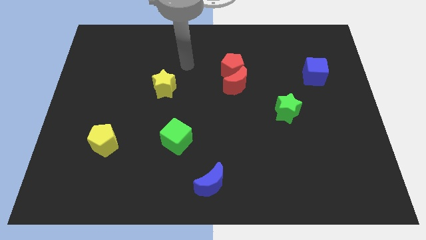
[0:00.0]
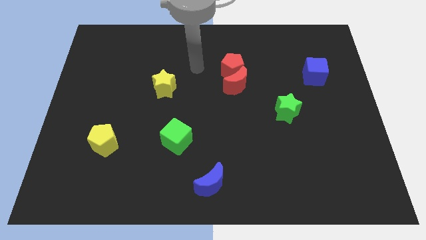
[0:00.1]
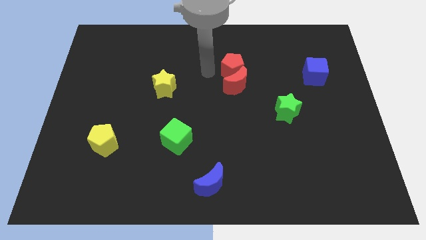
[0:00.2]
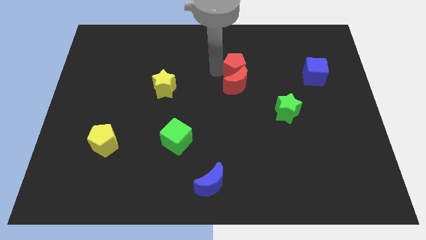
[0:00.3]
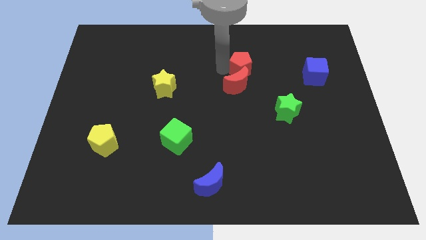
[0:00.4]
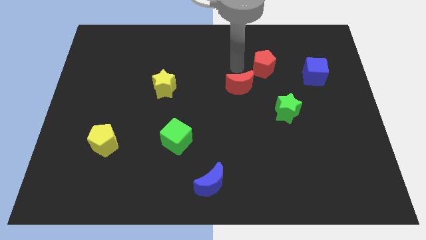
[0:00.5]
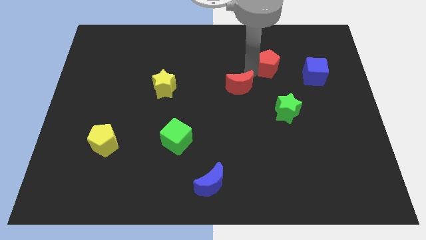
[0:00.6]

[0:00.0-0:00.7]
pull the red moon apart from the red pentagon

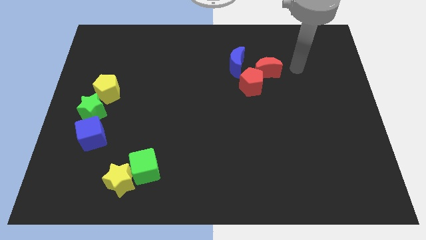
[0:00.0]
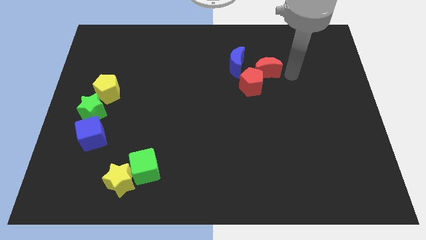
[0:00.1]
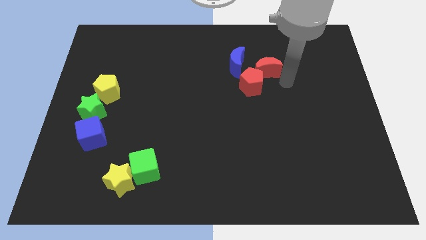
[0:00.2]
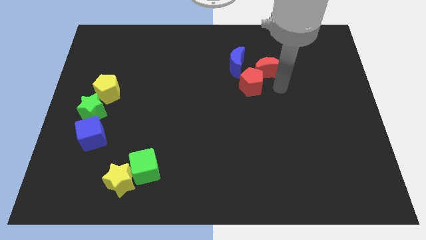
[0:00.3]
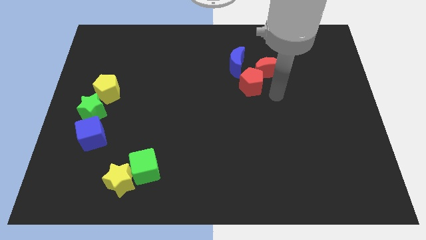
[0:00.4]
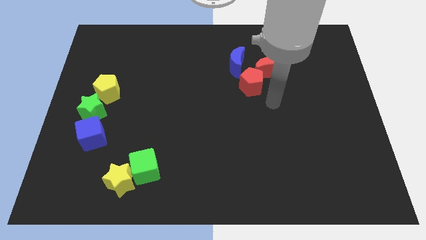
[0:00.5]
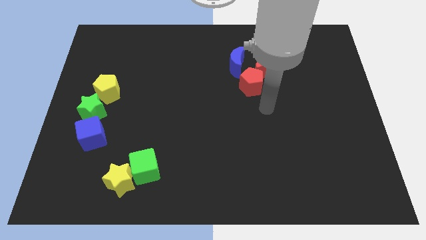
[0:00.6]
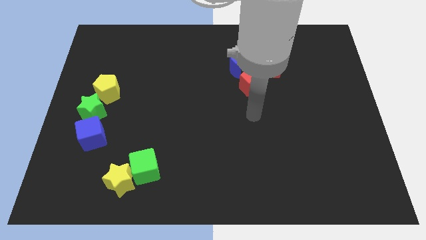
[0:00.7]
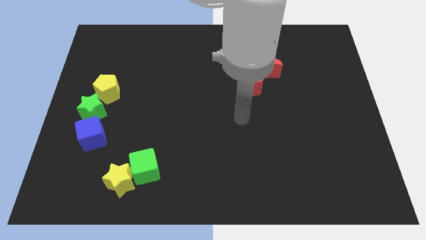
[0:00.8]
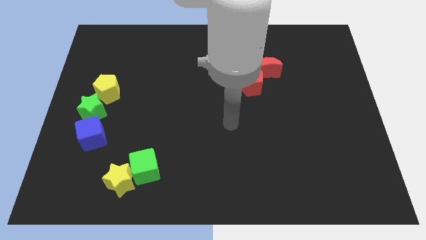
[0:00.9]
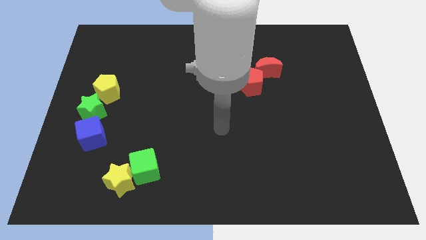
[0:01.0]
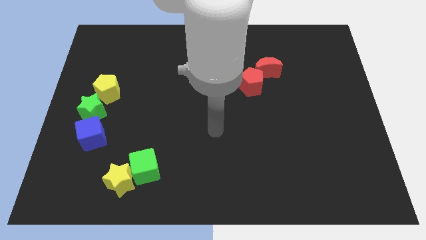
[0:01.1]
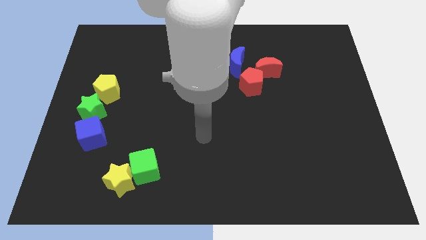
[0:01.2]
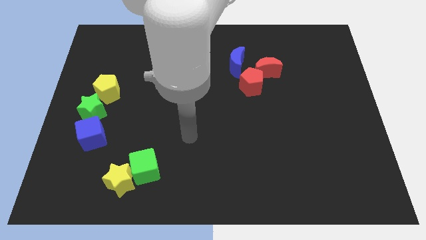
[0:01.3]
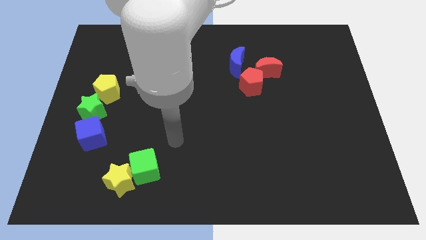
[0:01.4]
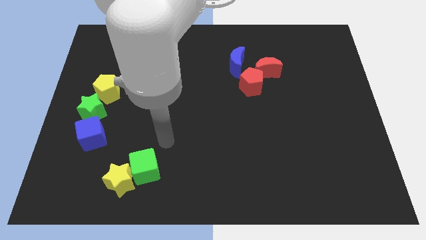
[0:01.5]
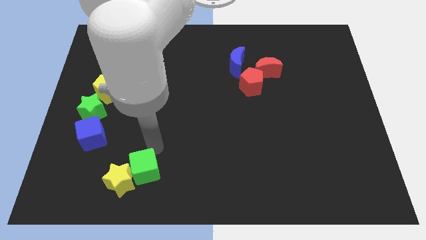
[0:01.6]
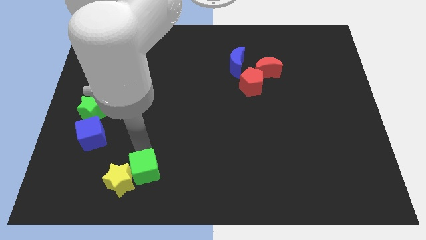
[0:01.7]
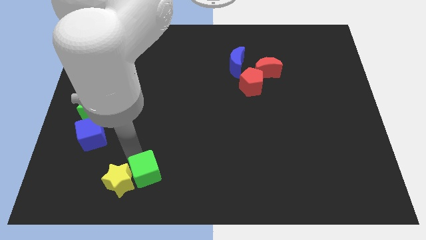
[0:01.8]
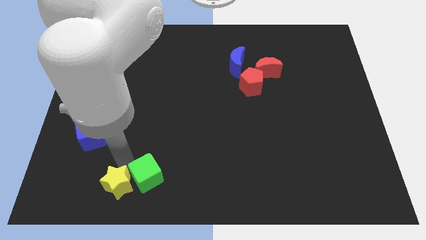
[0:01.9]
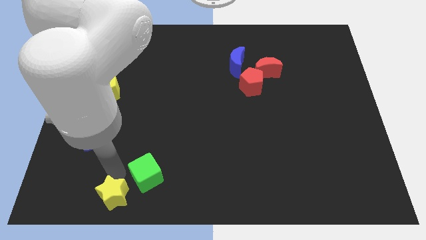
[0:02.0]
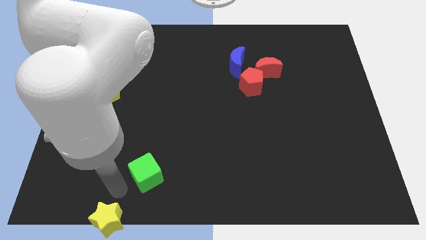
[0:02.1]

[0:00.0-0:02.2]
separate the green cube from the yellow star

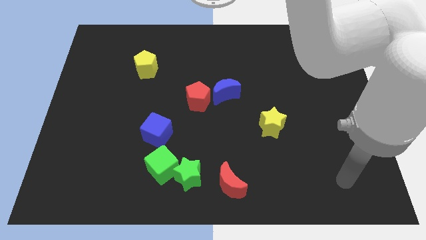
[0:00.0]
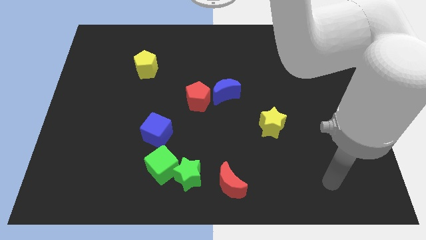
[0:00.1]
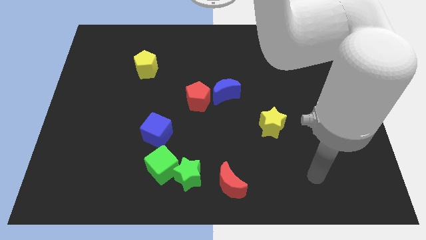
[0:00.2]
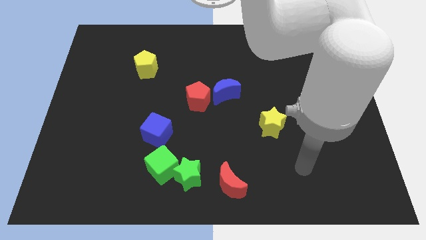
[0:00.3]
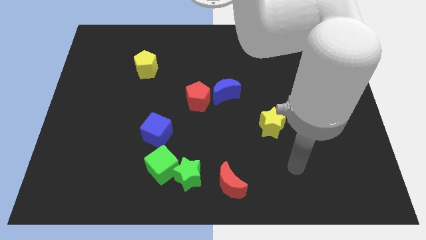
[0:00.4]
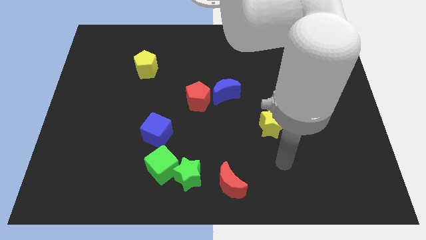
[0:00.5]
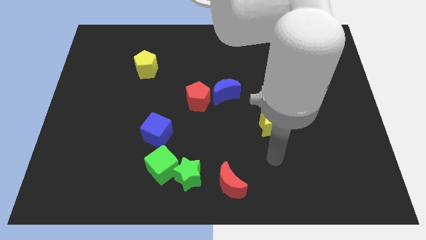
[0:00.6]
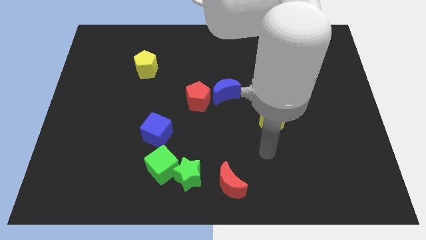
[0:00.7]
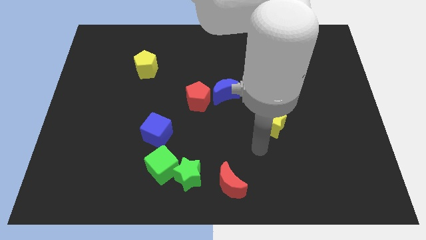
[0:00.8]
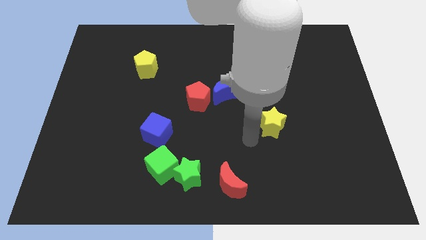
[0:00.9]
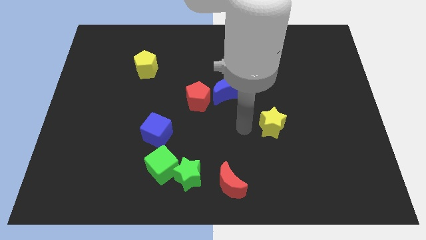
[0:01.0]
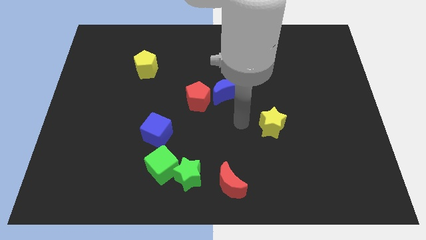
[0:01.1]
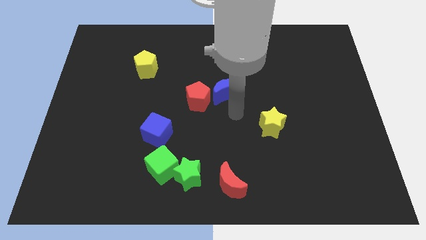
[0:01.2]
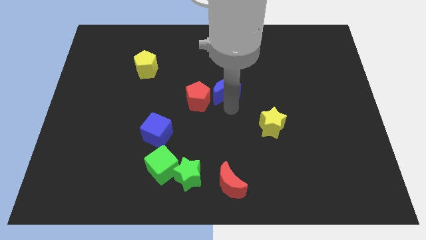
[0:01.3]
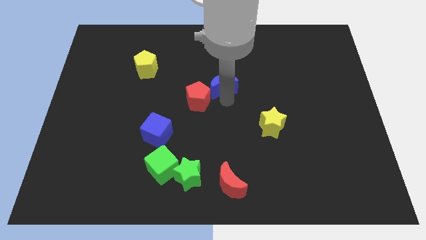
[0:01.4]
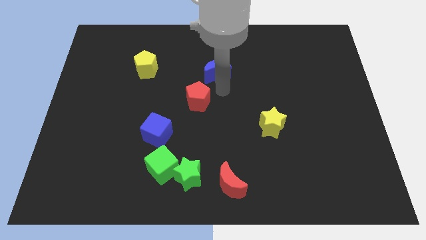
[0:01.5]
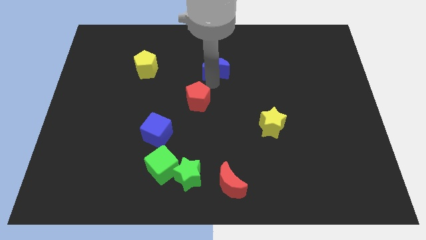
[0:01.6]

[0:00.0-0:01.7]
separate the red pentagon from the blue moon

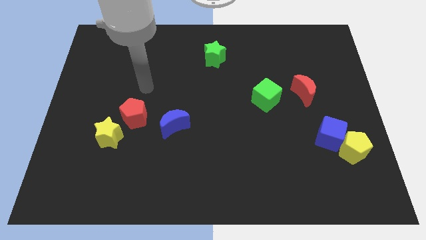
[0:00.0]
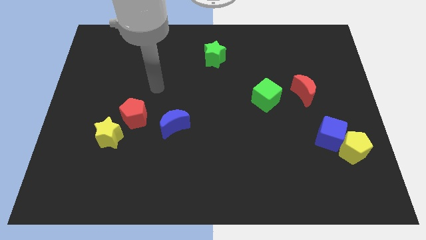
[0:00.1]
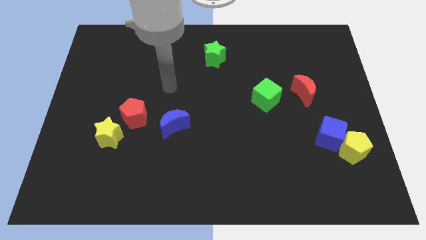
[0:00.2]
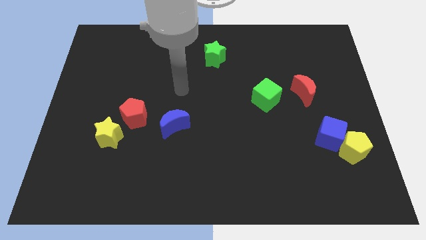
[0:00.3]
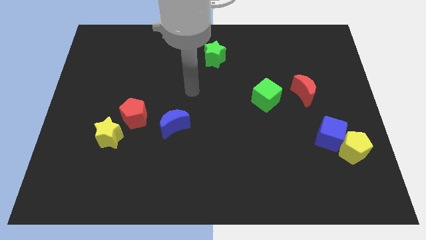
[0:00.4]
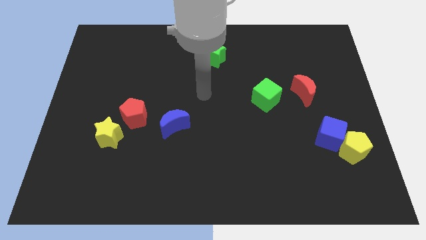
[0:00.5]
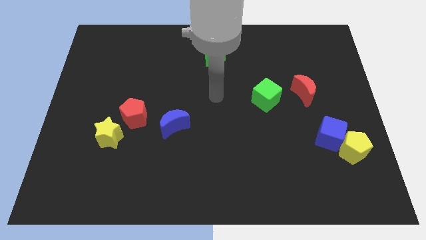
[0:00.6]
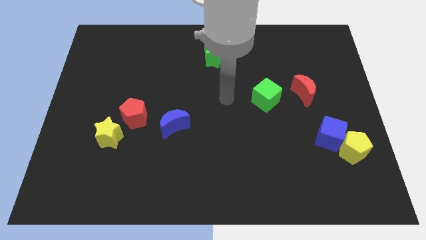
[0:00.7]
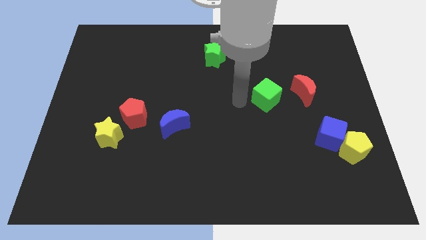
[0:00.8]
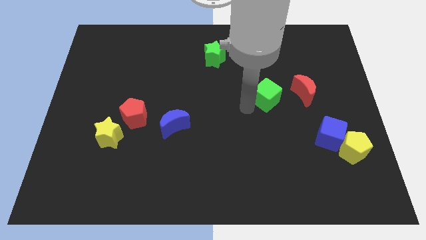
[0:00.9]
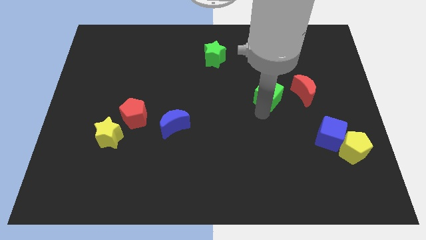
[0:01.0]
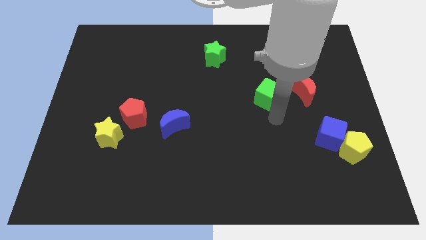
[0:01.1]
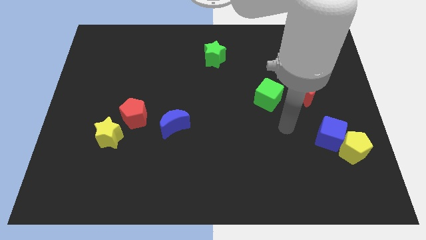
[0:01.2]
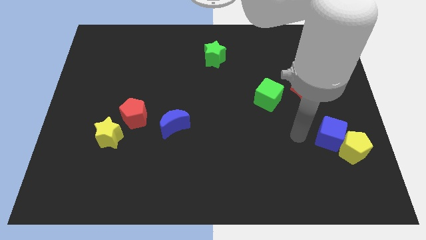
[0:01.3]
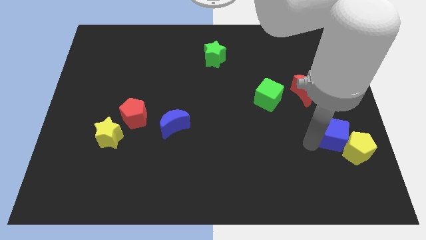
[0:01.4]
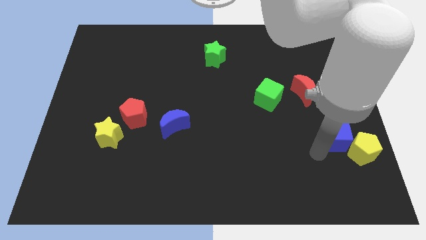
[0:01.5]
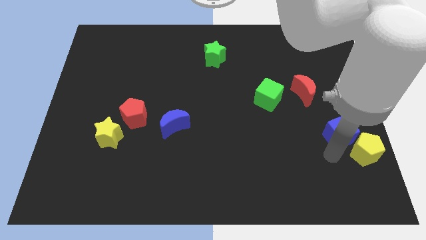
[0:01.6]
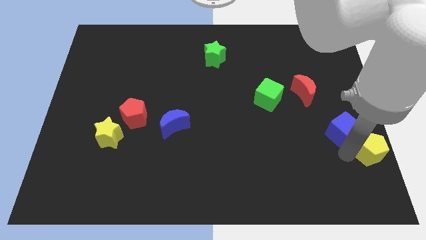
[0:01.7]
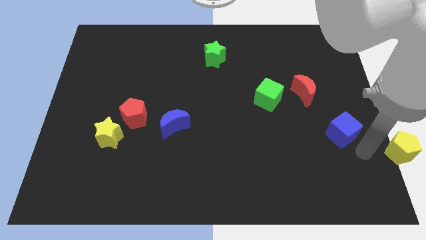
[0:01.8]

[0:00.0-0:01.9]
move the blue cube away from the yellow pentagon

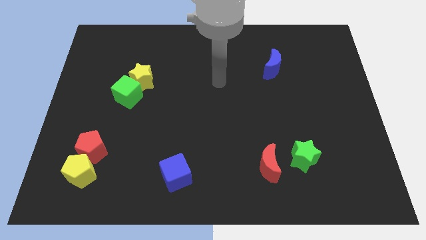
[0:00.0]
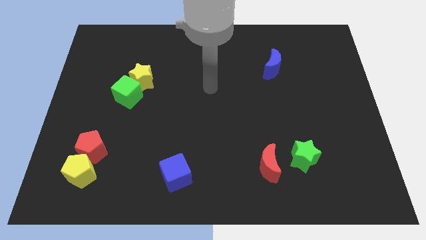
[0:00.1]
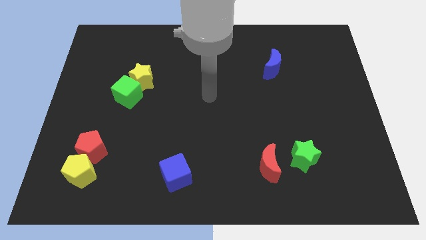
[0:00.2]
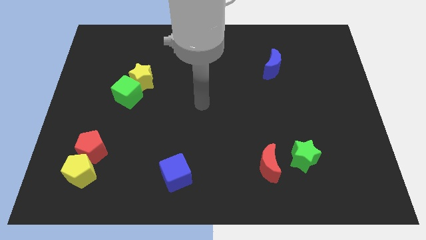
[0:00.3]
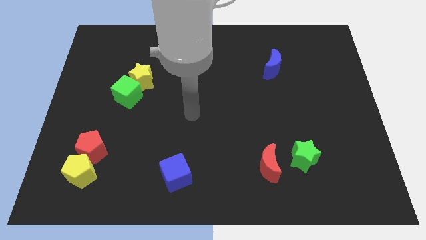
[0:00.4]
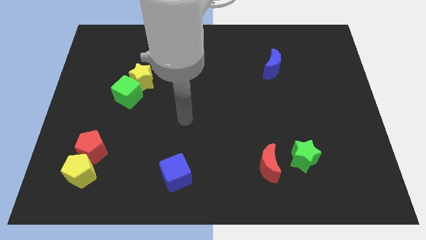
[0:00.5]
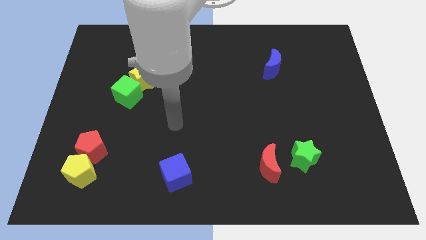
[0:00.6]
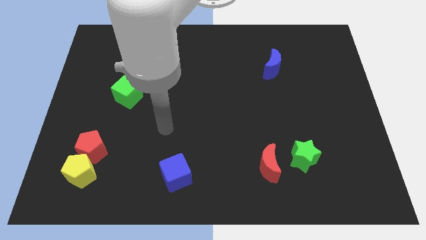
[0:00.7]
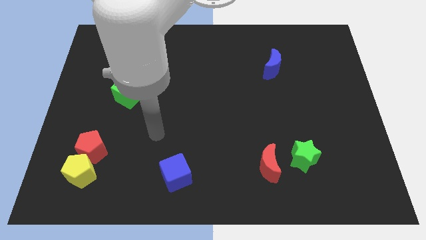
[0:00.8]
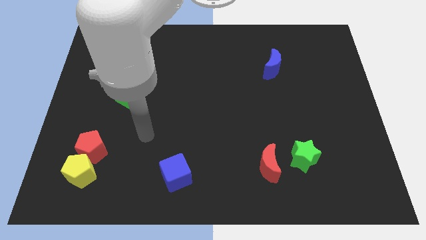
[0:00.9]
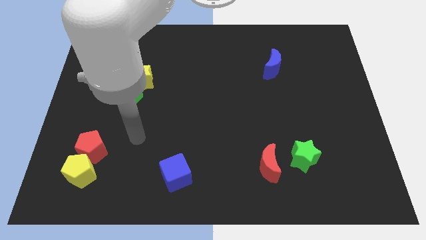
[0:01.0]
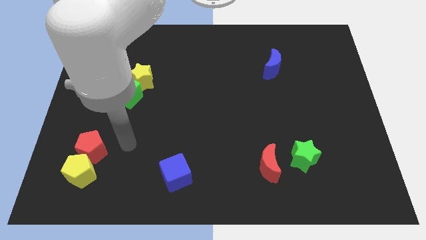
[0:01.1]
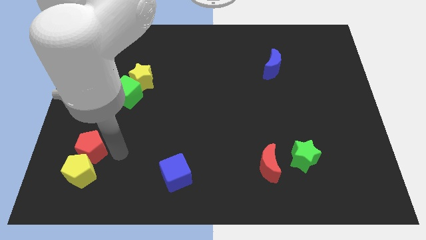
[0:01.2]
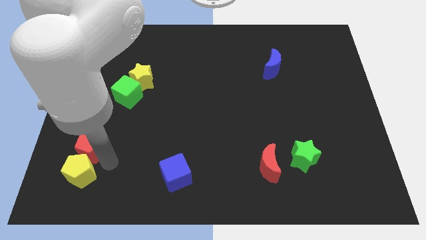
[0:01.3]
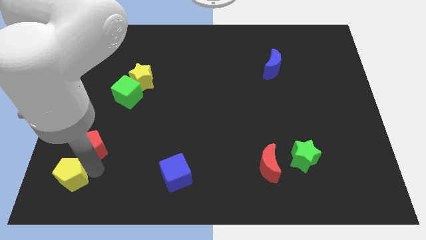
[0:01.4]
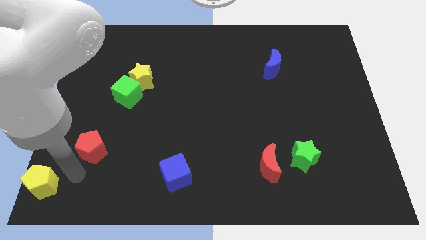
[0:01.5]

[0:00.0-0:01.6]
move the red pentagon away from the yellow pentagon

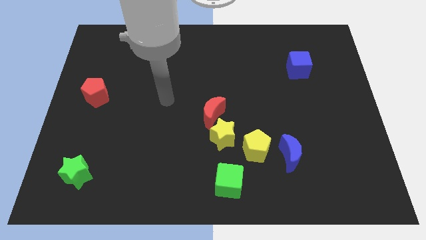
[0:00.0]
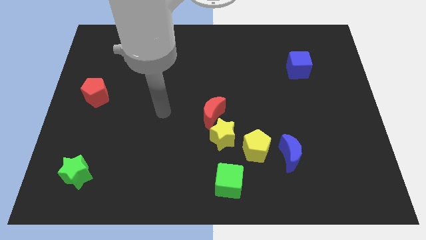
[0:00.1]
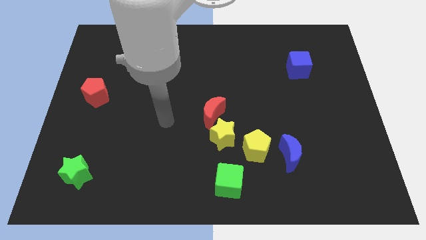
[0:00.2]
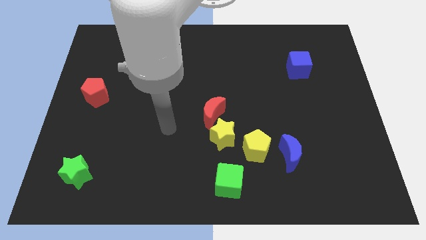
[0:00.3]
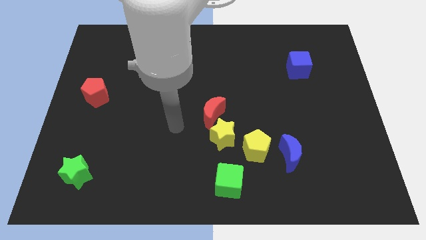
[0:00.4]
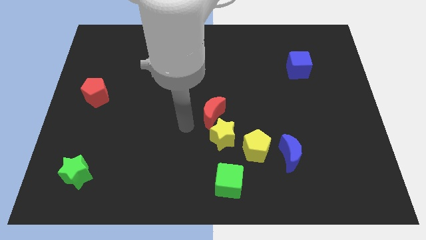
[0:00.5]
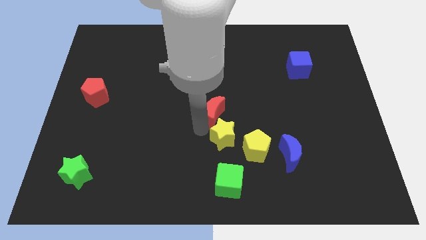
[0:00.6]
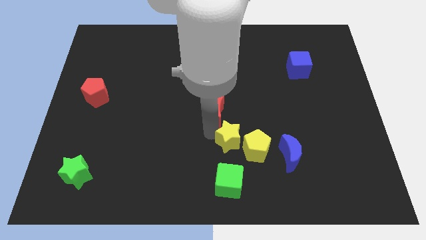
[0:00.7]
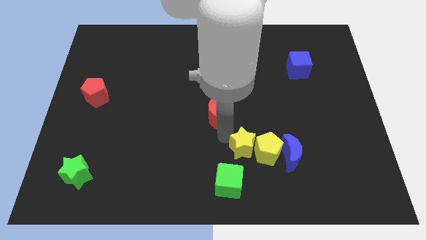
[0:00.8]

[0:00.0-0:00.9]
separate the red moon from the yellow star

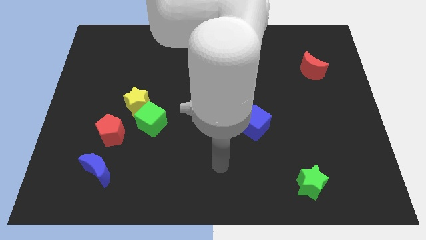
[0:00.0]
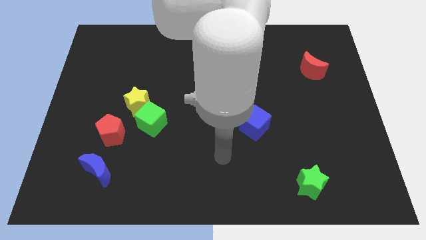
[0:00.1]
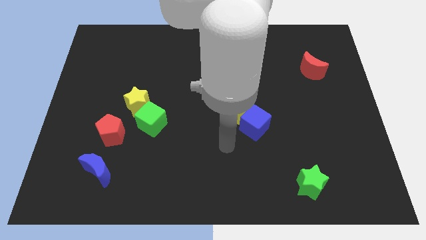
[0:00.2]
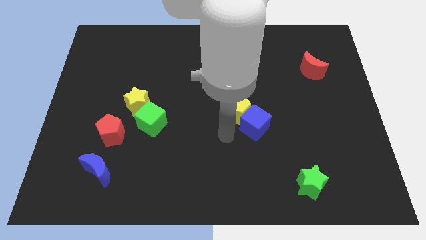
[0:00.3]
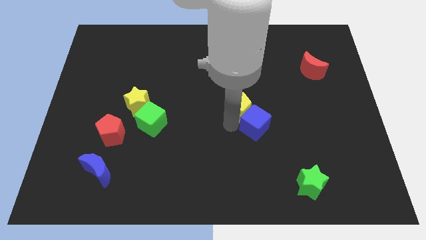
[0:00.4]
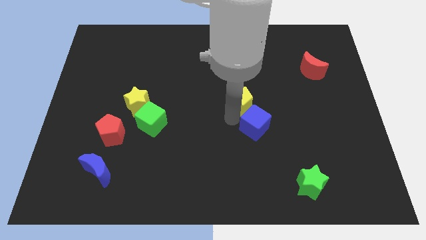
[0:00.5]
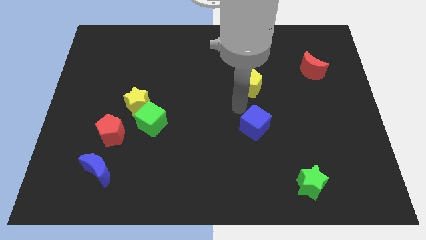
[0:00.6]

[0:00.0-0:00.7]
separate the blue cube from the yellow pentagon
